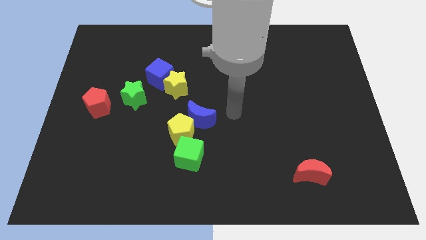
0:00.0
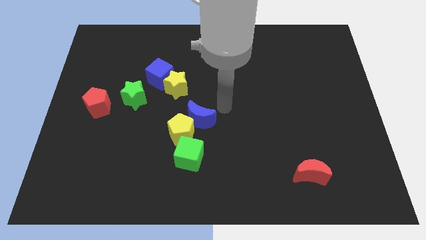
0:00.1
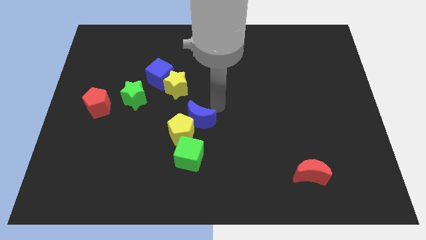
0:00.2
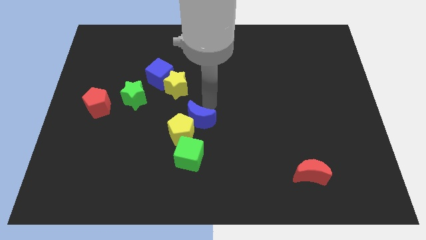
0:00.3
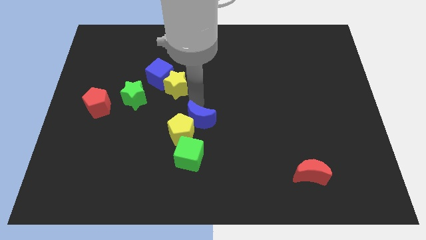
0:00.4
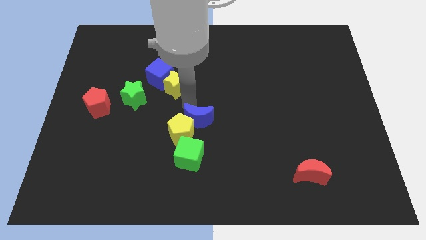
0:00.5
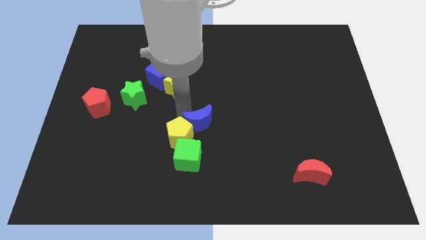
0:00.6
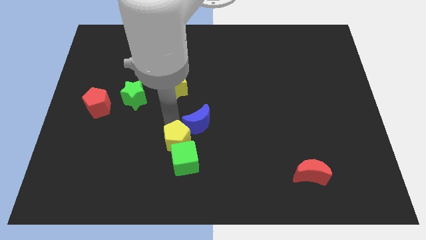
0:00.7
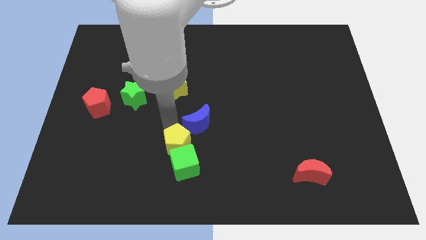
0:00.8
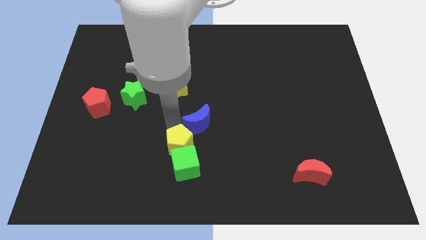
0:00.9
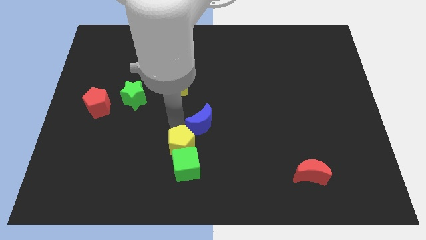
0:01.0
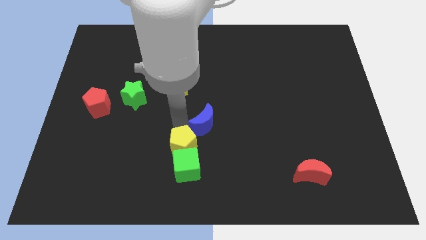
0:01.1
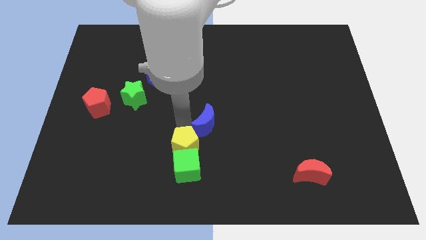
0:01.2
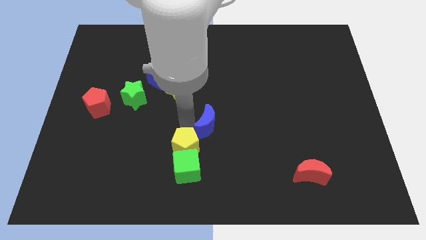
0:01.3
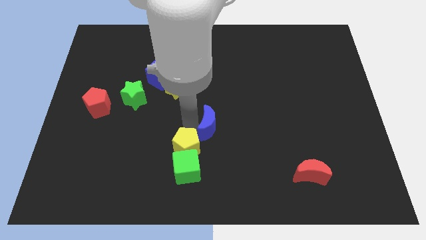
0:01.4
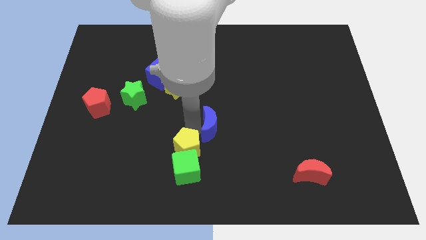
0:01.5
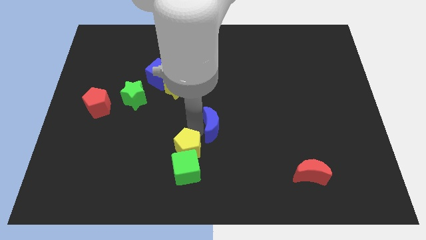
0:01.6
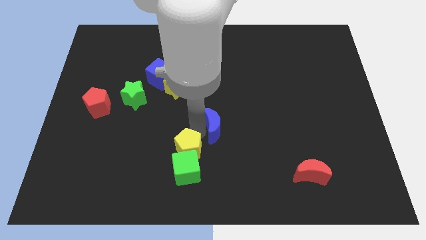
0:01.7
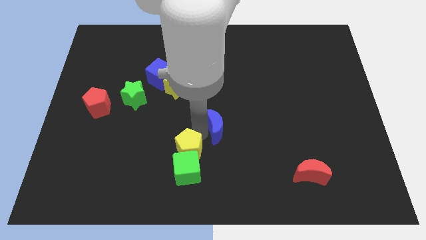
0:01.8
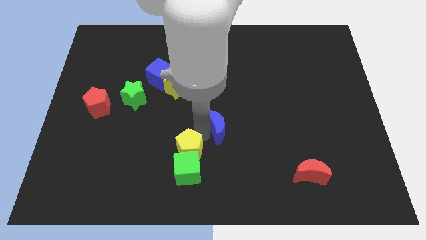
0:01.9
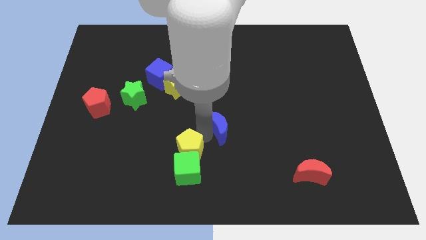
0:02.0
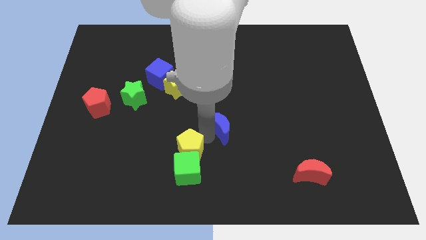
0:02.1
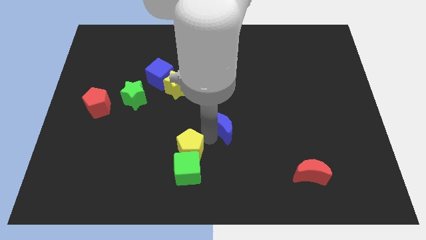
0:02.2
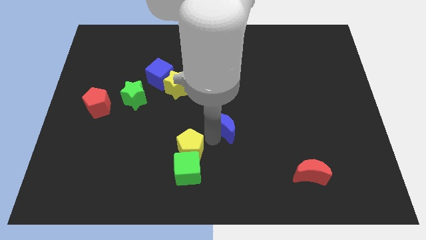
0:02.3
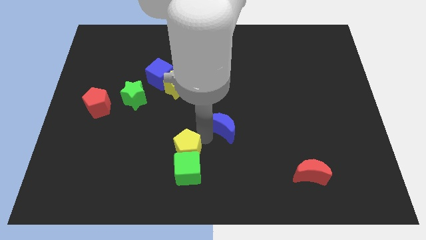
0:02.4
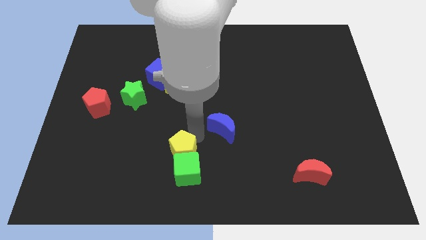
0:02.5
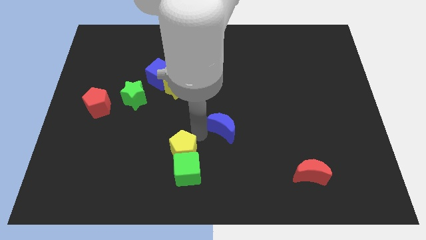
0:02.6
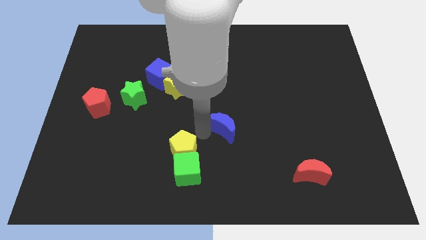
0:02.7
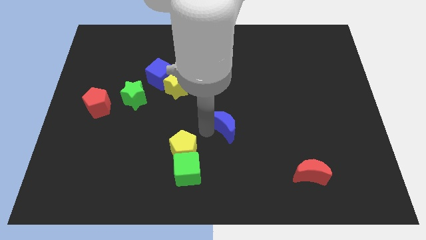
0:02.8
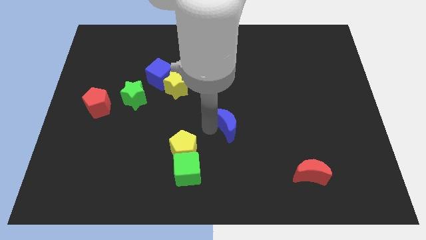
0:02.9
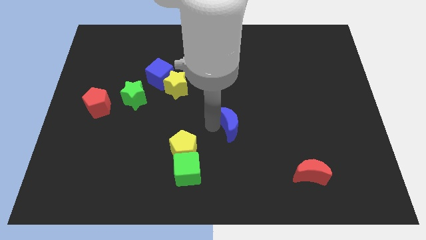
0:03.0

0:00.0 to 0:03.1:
move the blue moon right somewhat

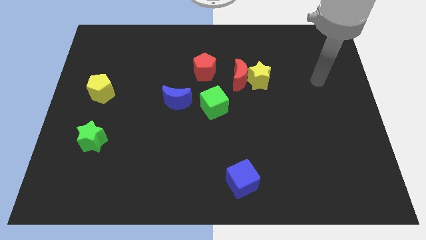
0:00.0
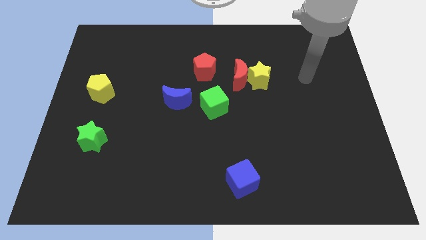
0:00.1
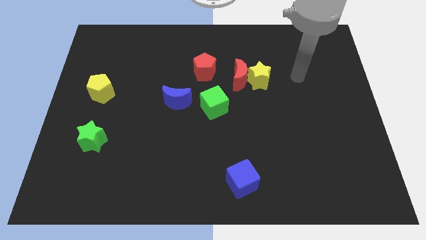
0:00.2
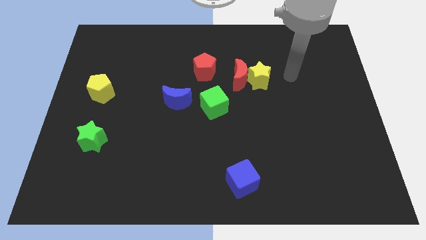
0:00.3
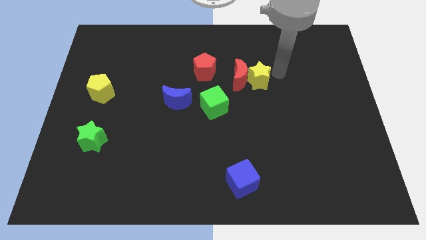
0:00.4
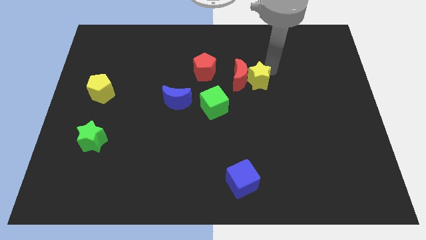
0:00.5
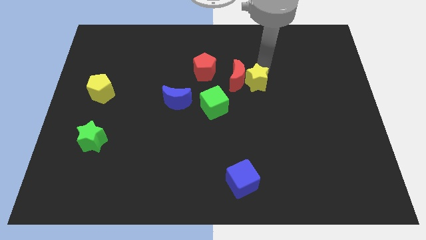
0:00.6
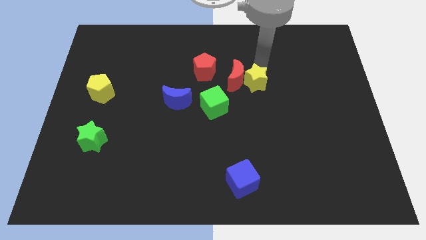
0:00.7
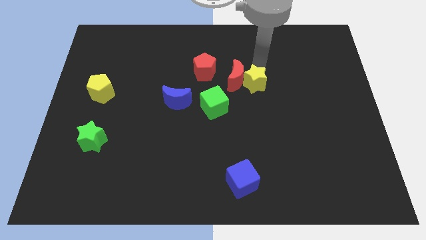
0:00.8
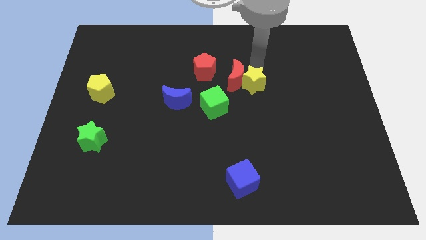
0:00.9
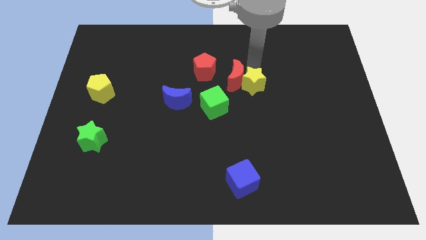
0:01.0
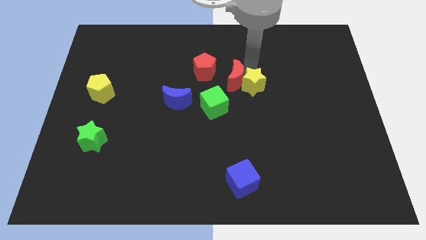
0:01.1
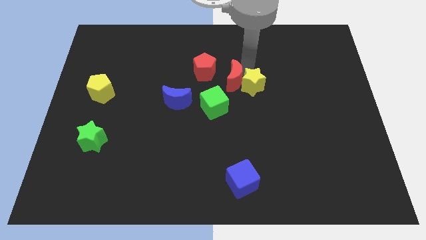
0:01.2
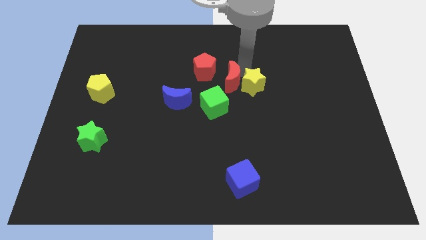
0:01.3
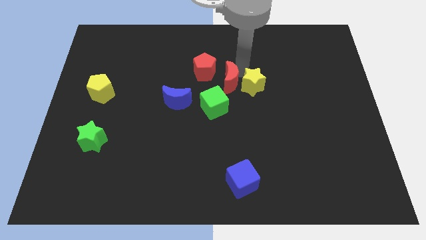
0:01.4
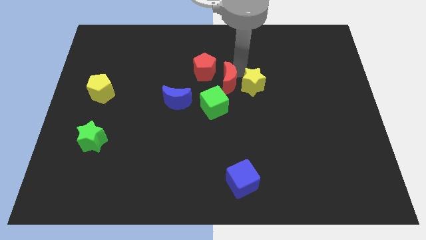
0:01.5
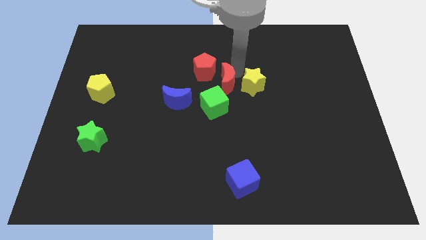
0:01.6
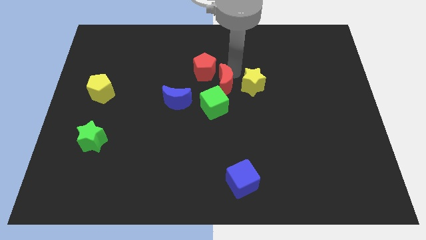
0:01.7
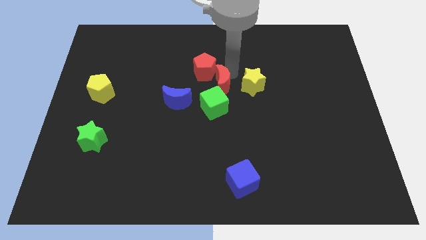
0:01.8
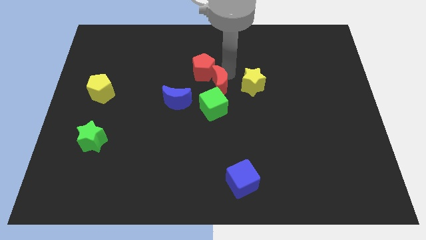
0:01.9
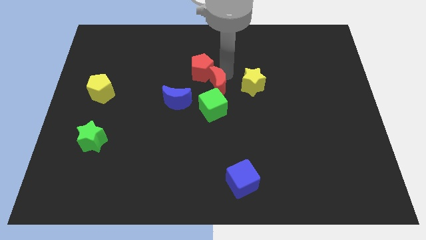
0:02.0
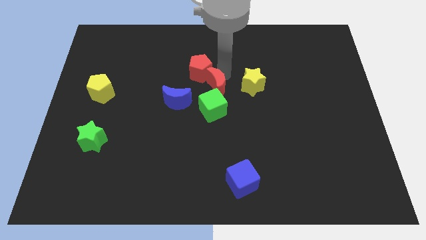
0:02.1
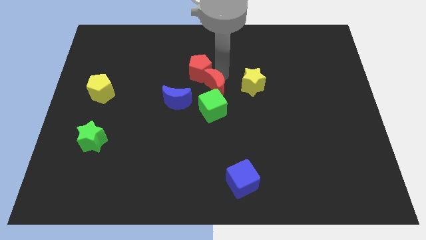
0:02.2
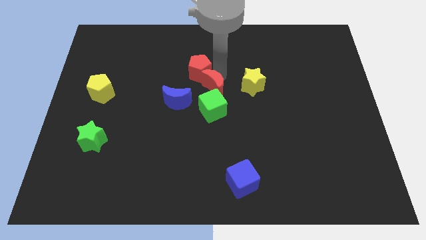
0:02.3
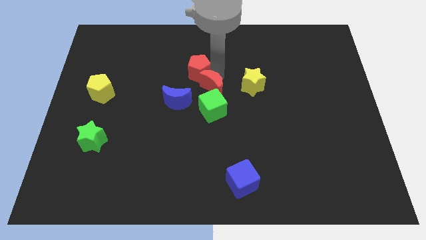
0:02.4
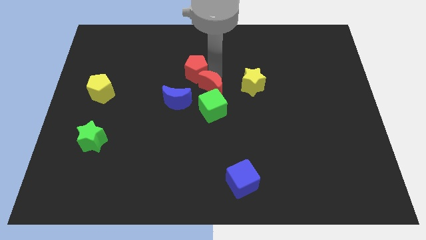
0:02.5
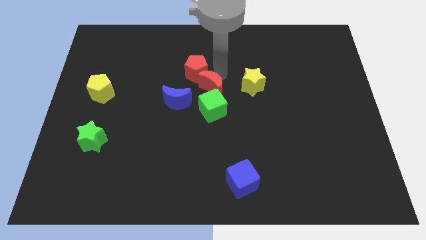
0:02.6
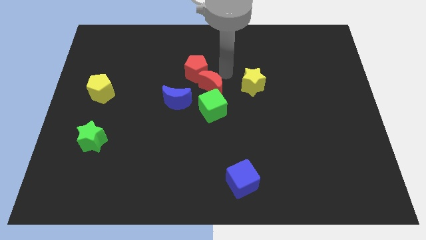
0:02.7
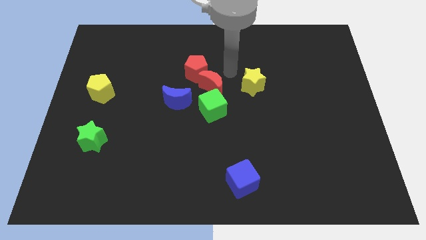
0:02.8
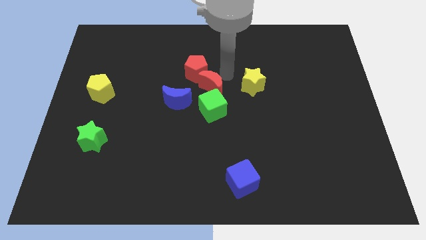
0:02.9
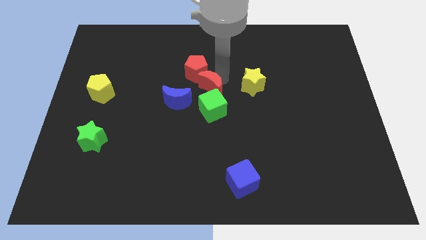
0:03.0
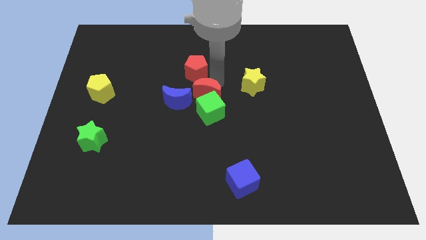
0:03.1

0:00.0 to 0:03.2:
slightly push the red moon downwards and then left

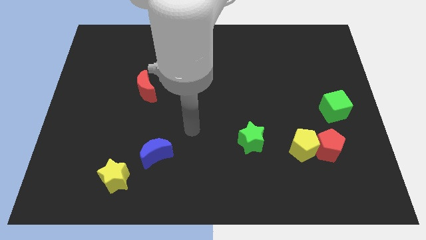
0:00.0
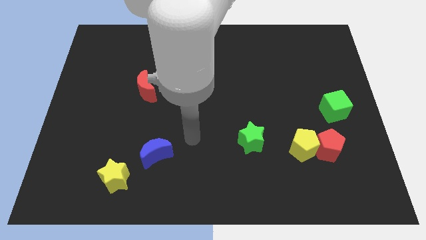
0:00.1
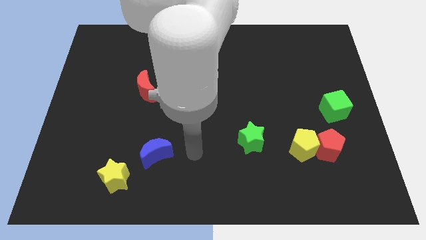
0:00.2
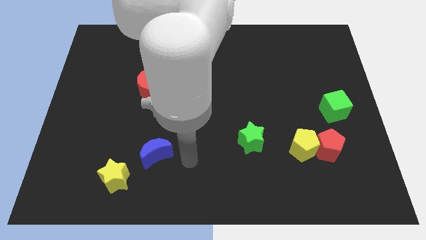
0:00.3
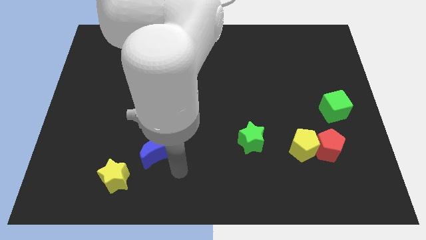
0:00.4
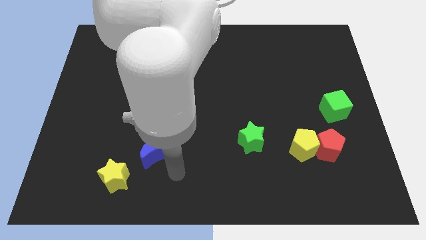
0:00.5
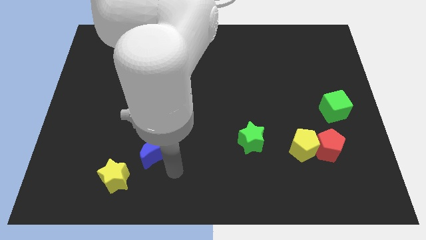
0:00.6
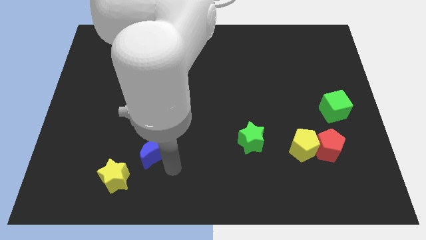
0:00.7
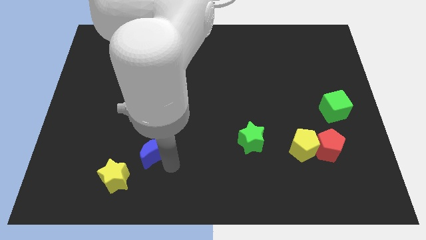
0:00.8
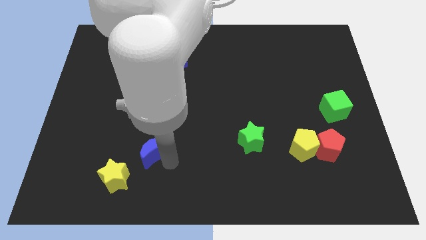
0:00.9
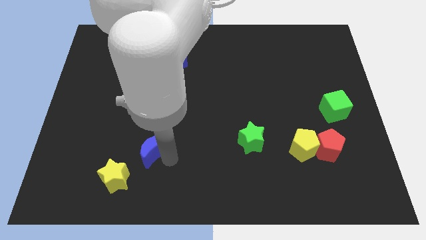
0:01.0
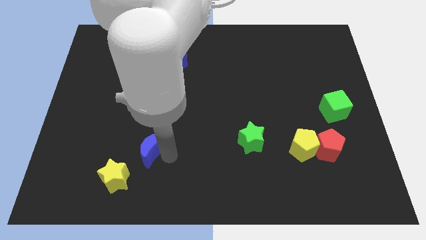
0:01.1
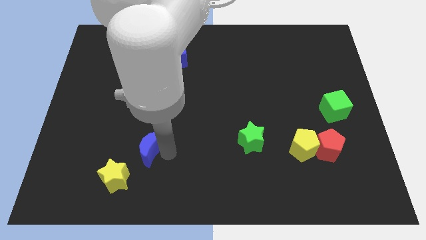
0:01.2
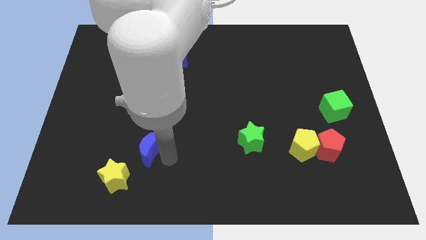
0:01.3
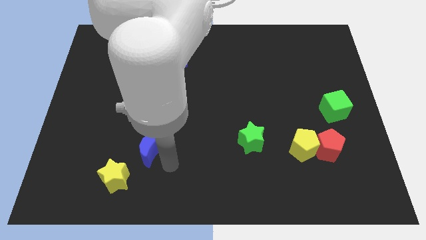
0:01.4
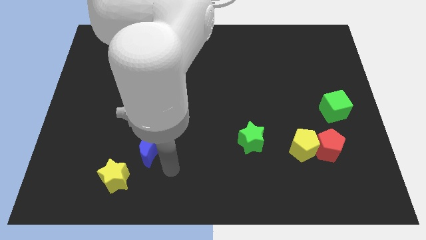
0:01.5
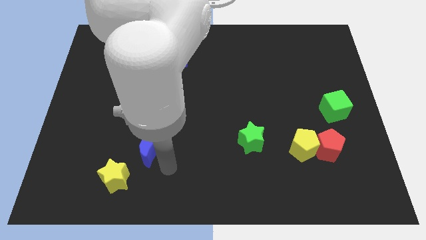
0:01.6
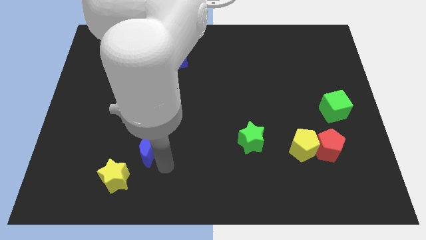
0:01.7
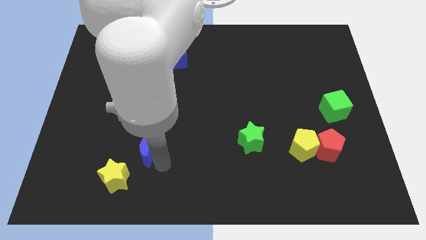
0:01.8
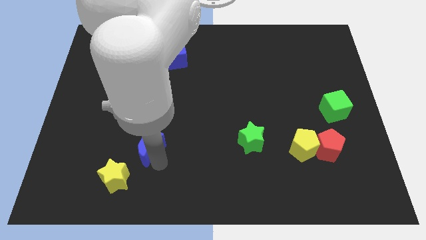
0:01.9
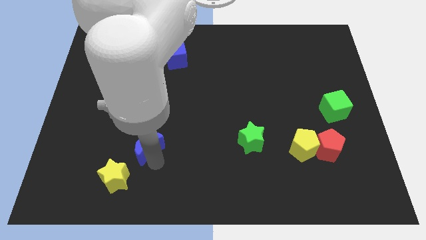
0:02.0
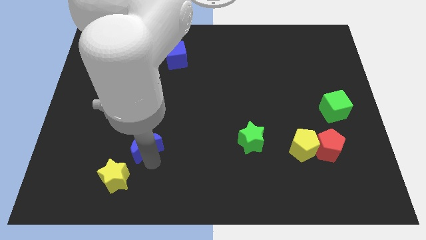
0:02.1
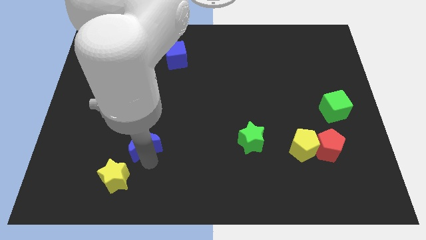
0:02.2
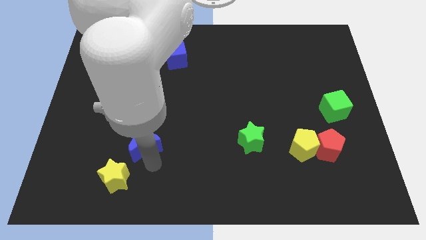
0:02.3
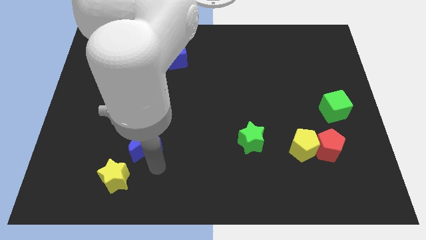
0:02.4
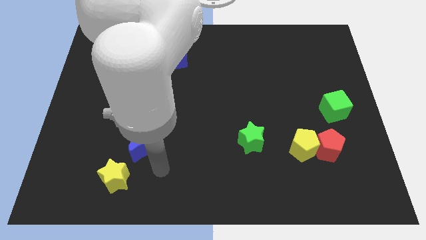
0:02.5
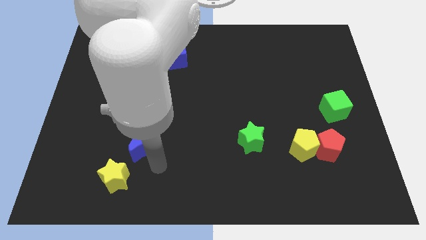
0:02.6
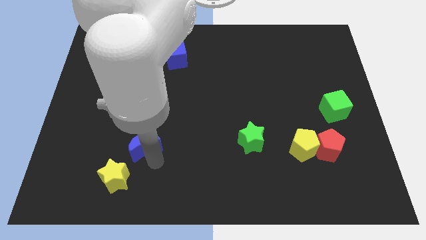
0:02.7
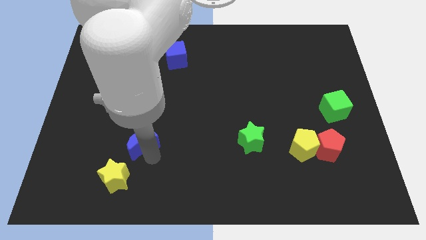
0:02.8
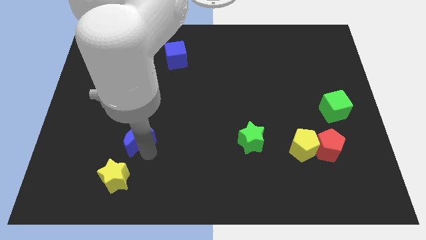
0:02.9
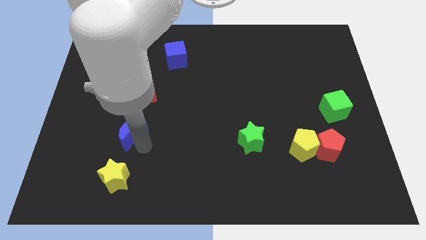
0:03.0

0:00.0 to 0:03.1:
slide the blue moon a little bit diagonally upwards and left
